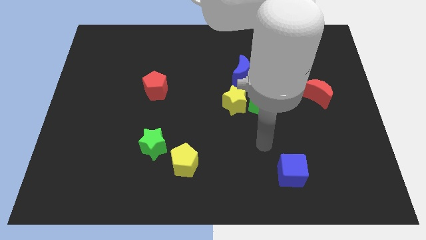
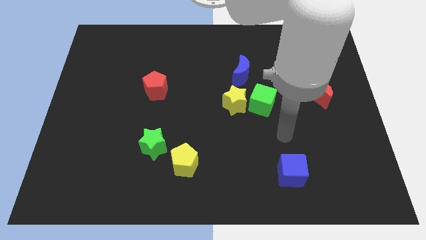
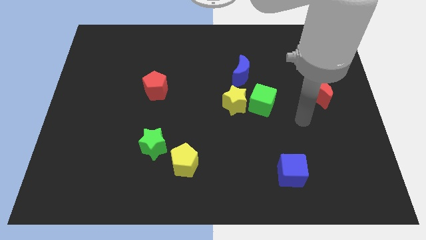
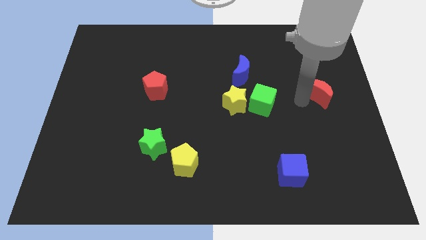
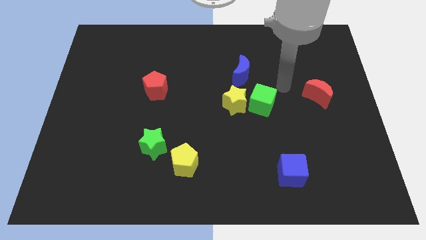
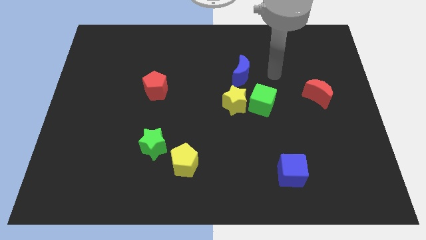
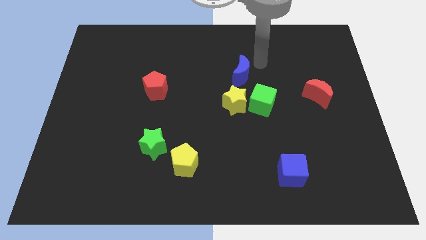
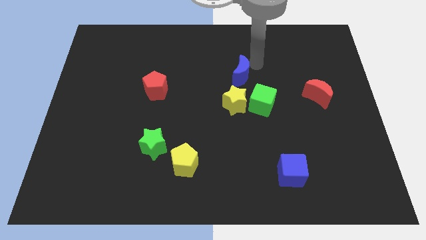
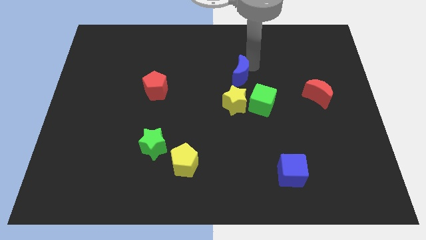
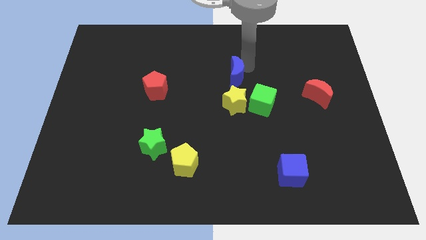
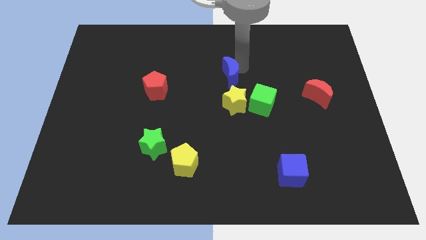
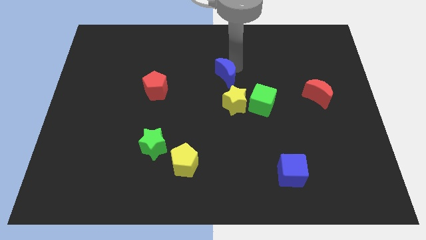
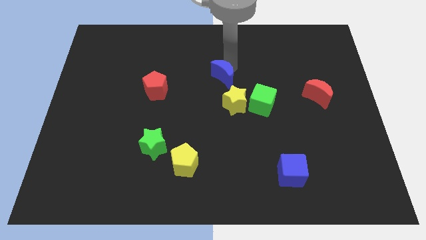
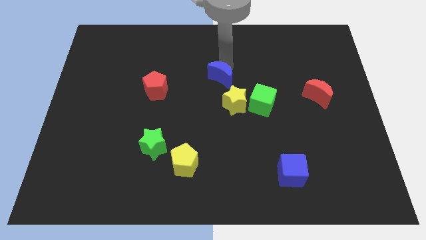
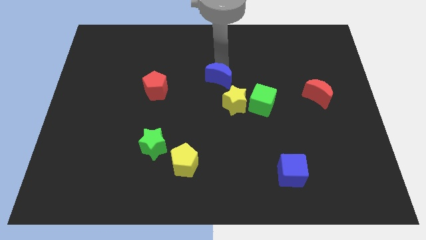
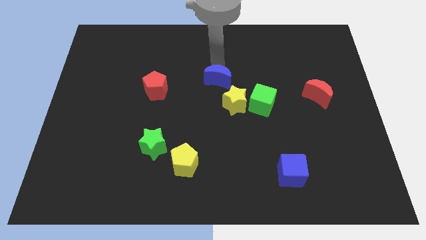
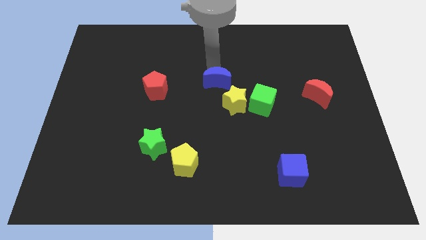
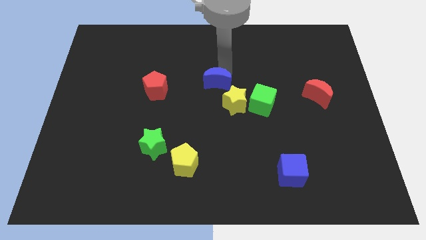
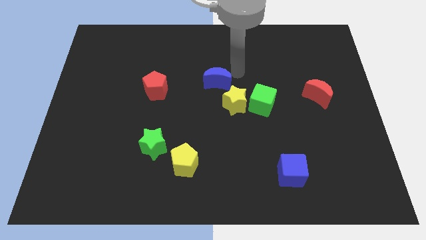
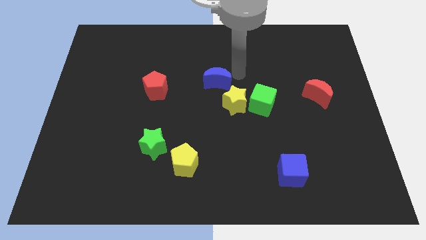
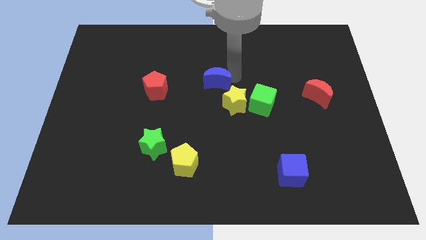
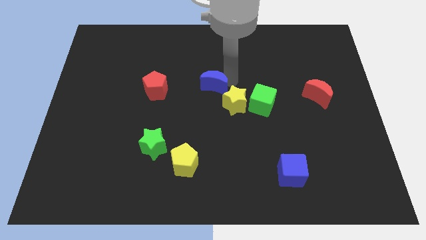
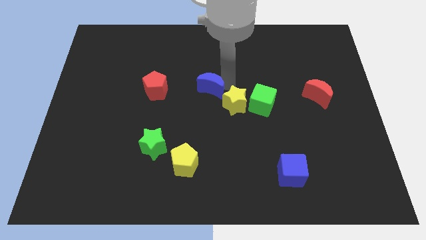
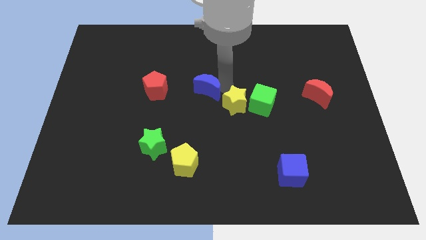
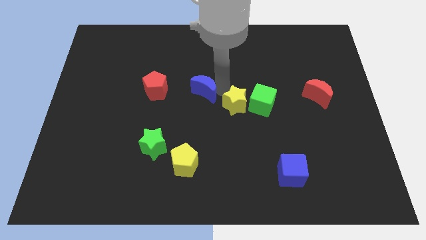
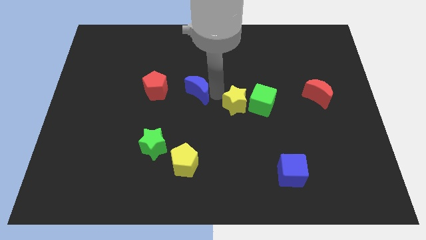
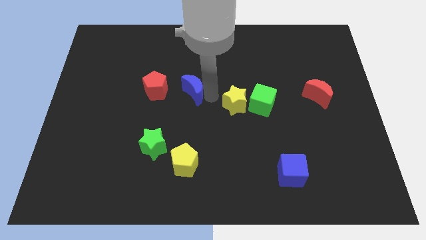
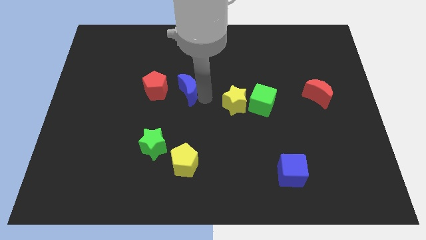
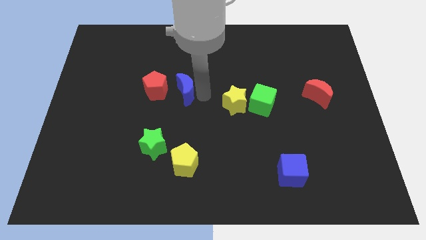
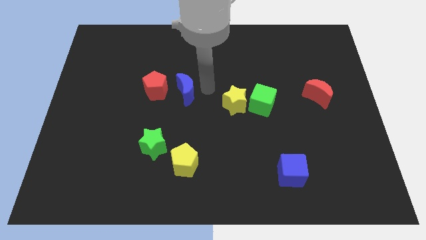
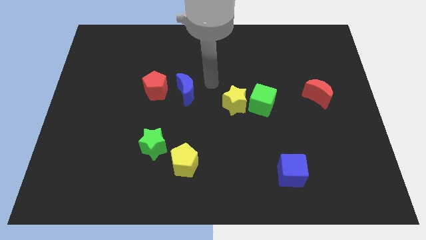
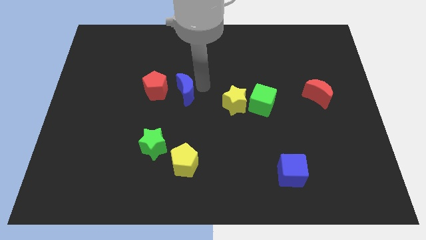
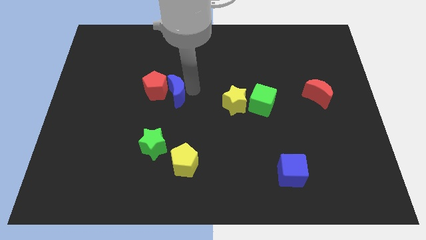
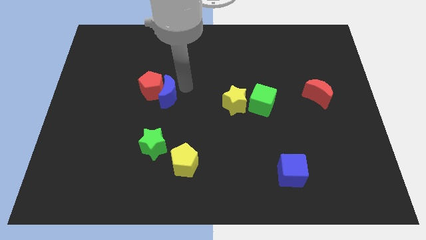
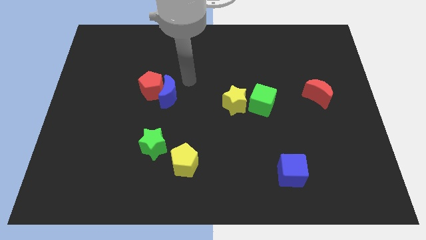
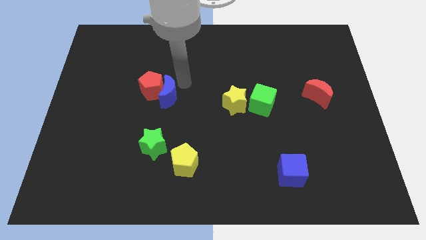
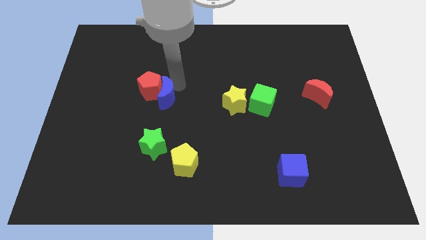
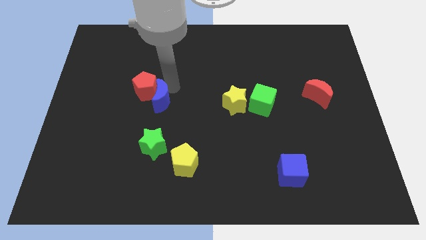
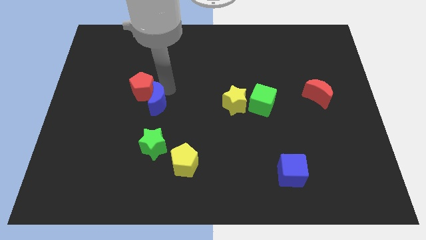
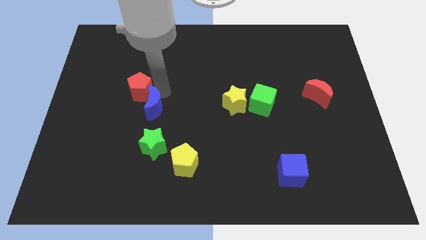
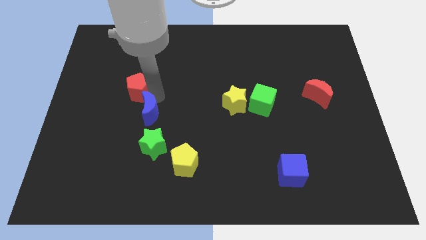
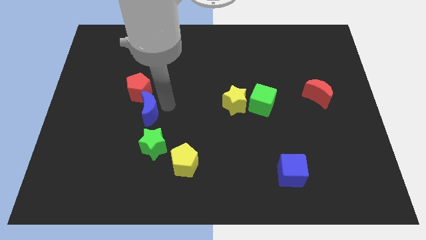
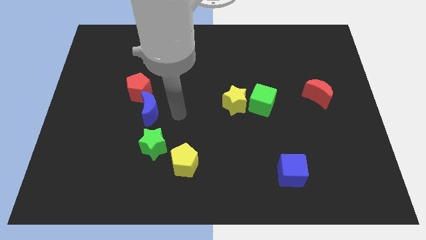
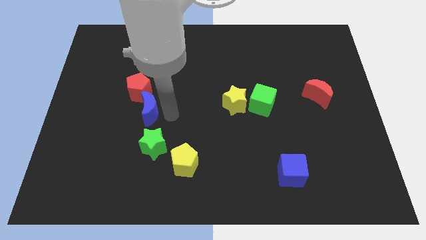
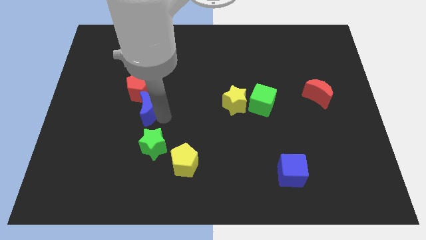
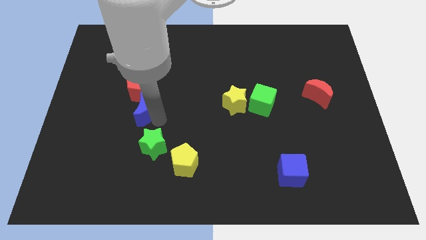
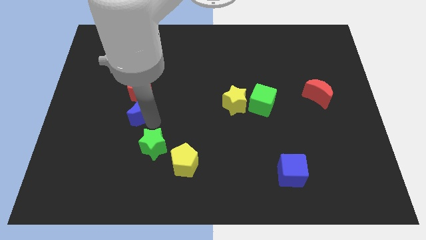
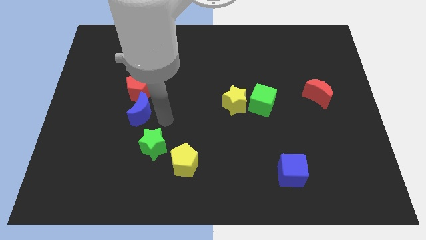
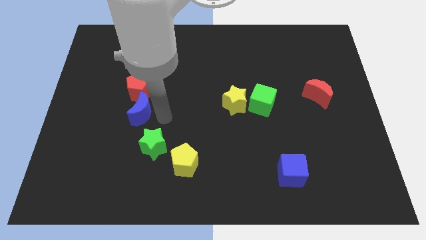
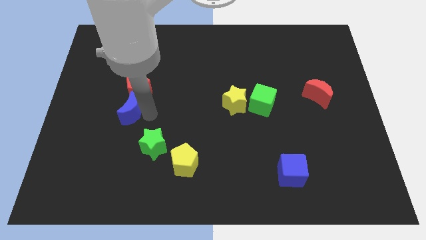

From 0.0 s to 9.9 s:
put the blue moon diagonally down and to the left of the red pentagon

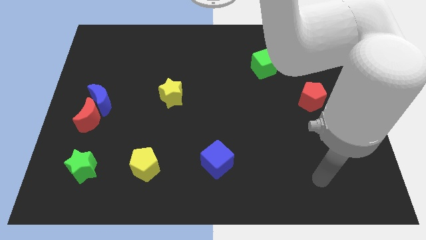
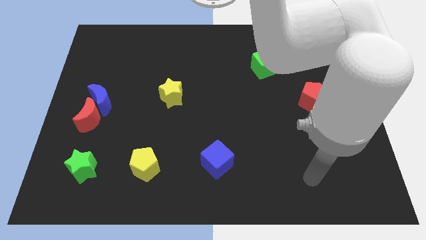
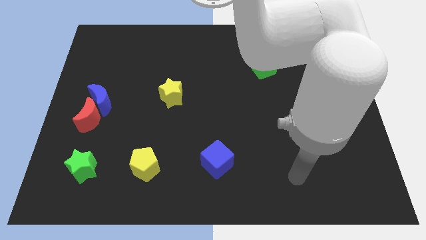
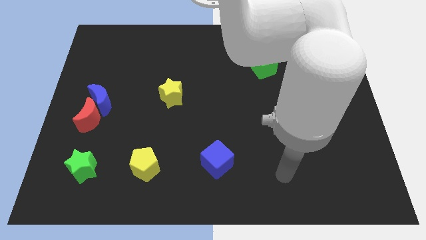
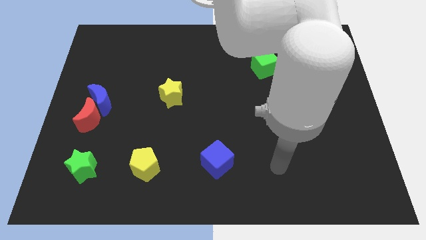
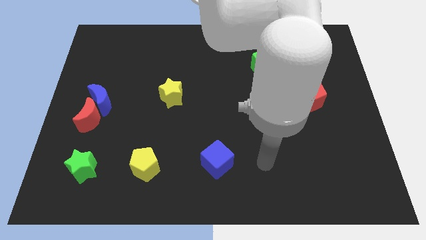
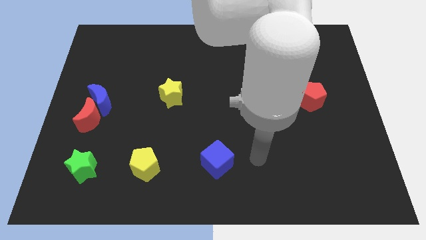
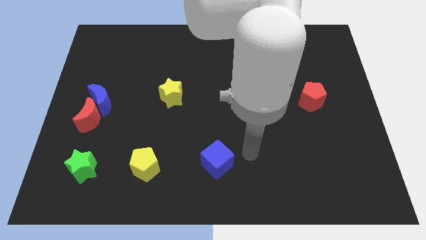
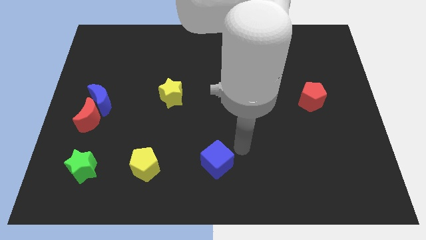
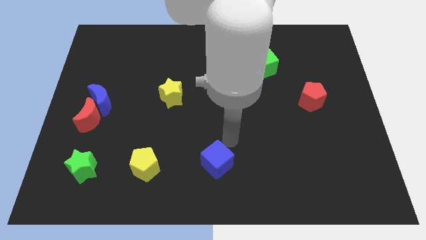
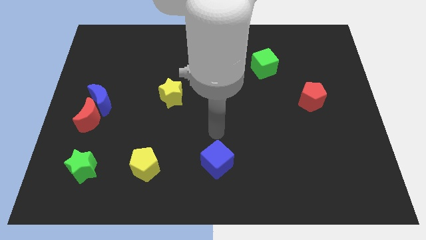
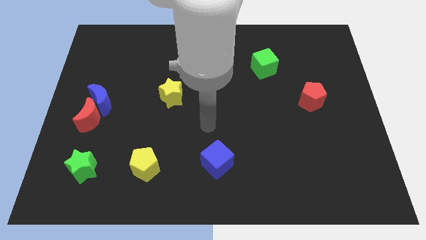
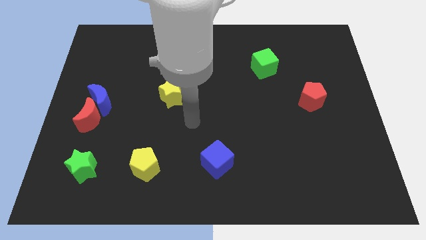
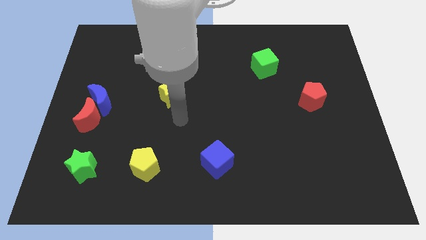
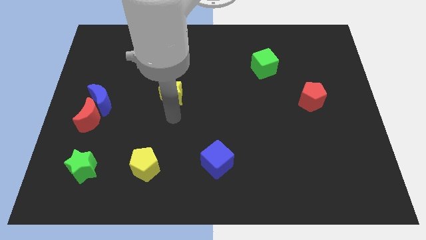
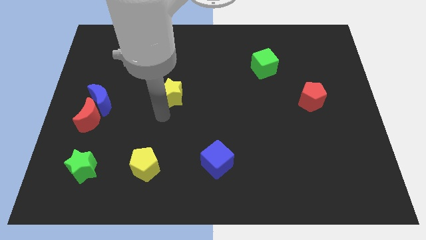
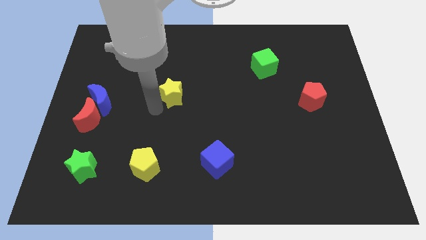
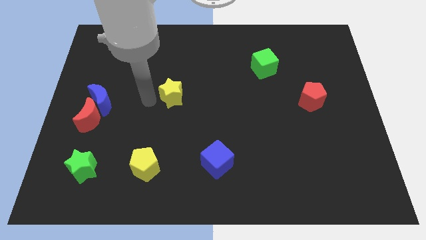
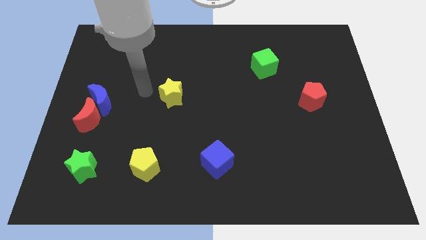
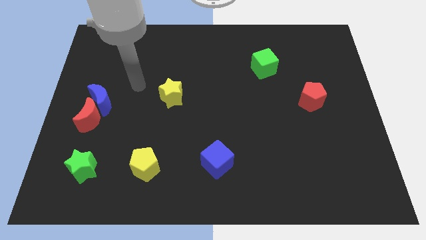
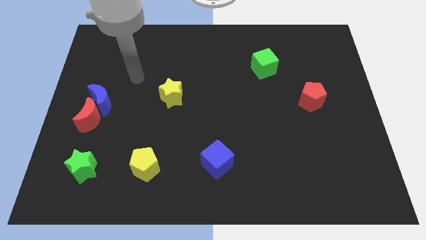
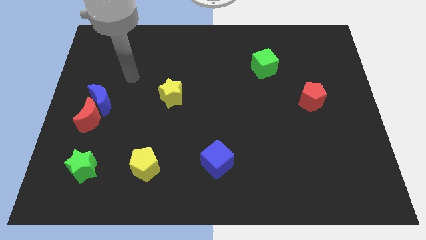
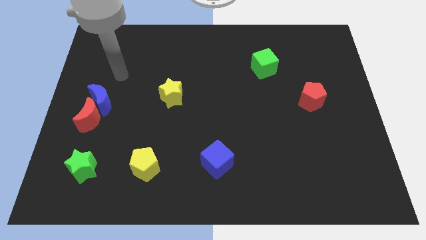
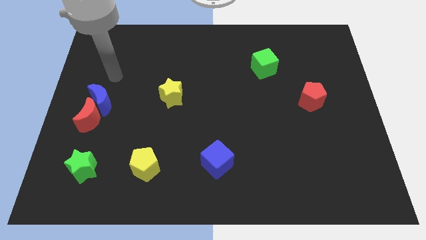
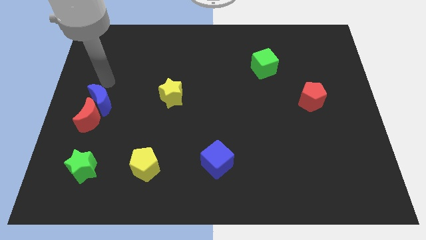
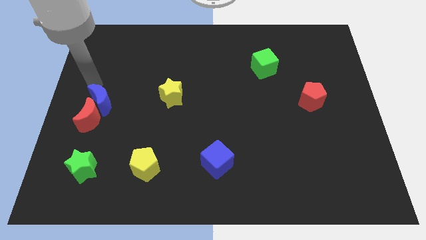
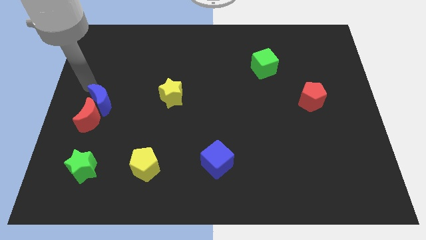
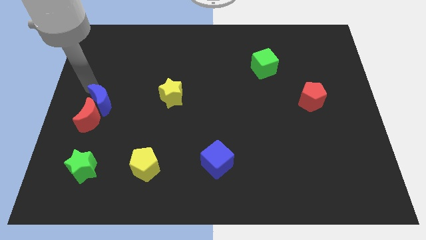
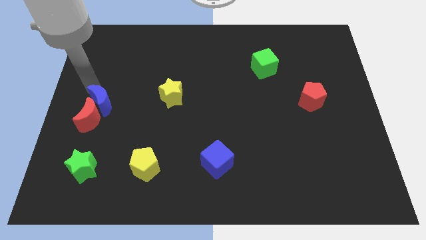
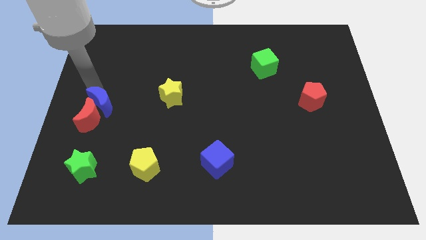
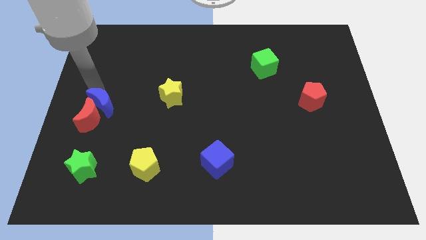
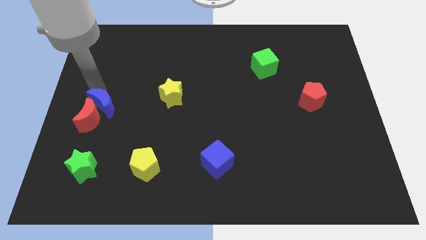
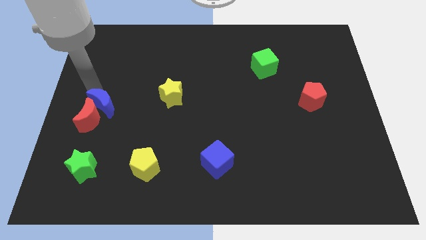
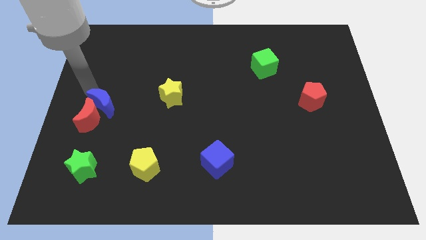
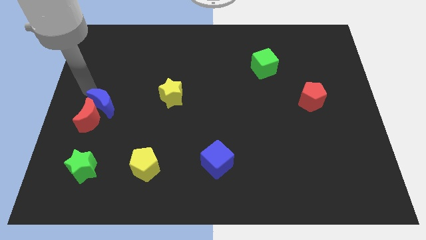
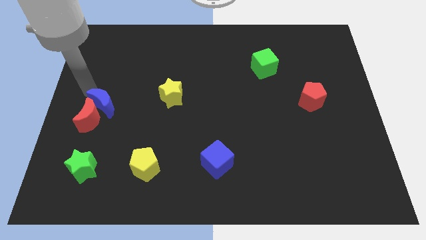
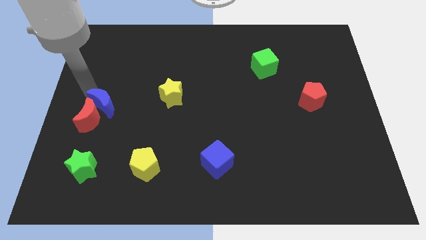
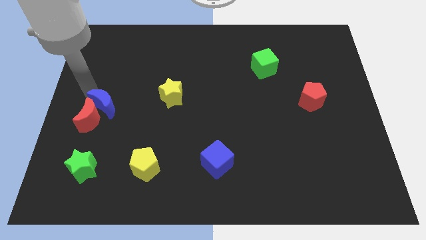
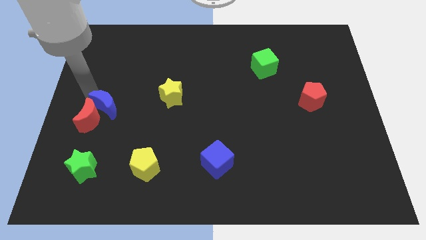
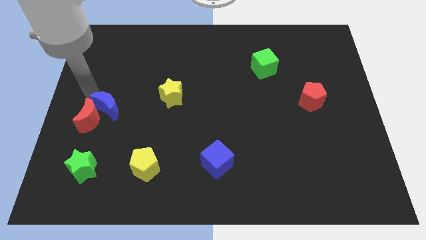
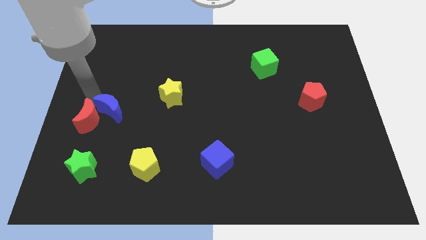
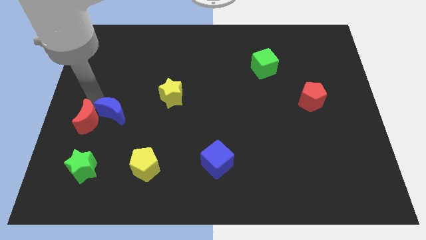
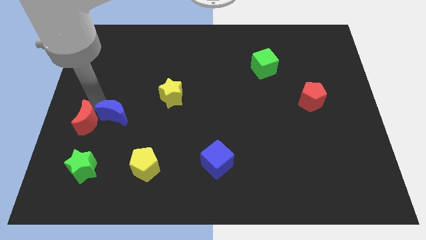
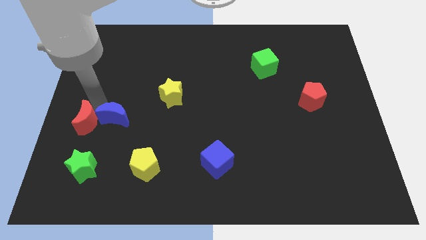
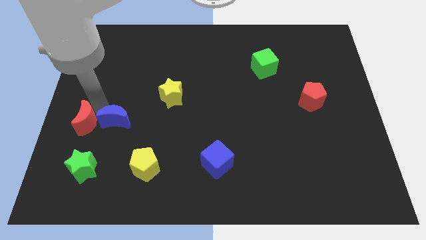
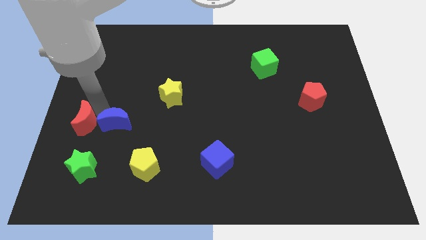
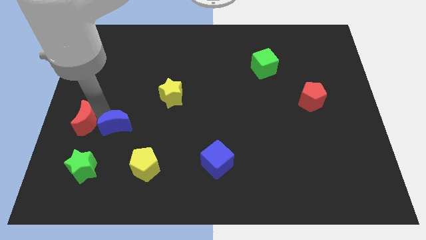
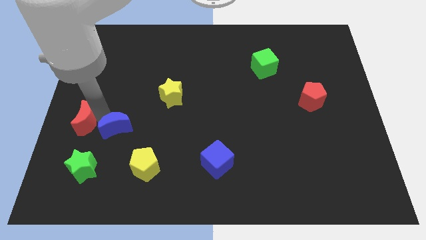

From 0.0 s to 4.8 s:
slide the blue moon to the top left side of the yellow pentagon
